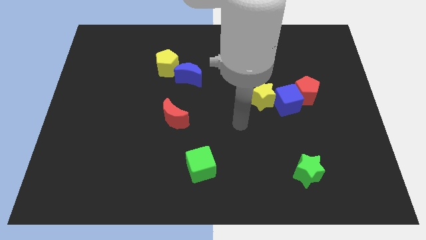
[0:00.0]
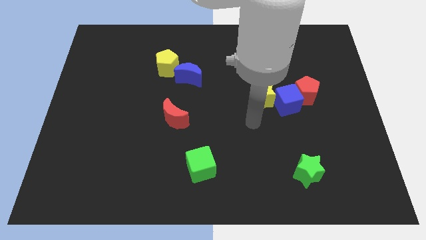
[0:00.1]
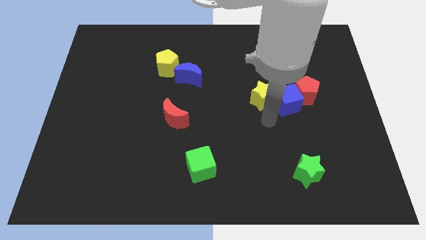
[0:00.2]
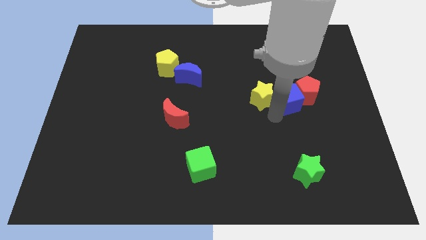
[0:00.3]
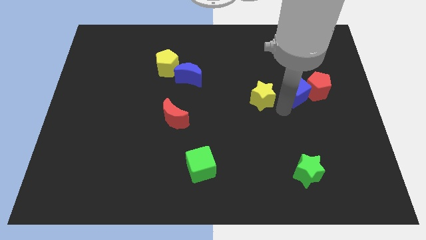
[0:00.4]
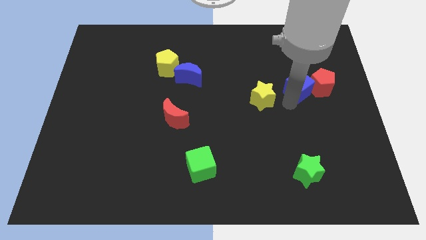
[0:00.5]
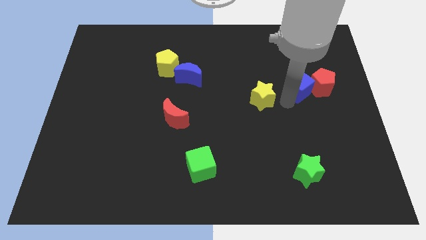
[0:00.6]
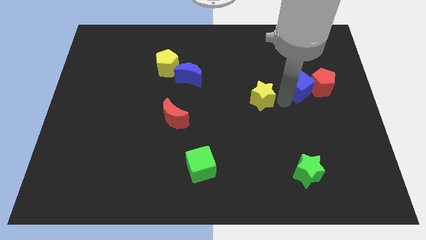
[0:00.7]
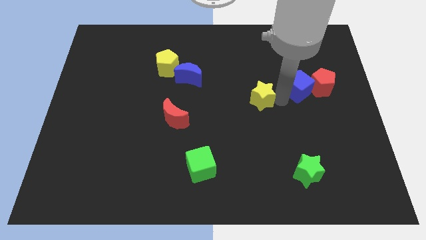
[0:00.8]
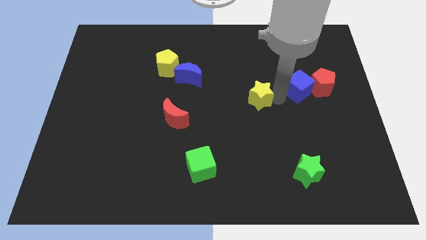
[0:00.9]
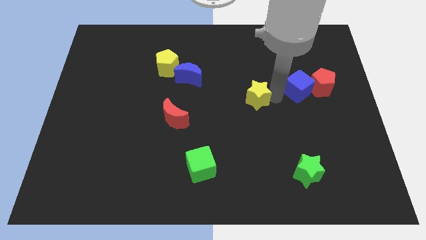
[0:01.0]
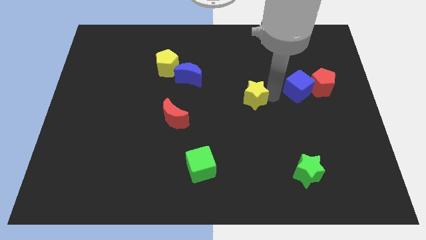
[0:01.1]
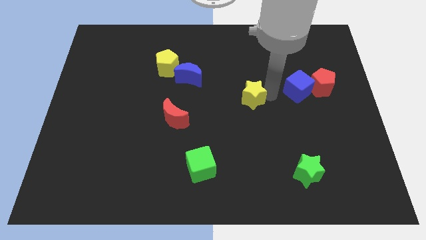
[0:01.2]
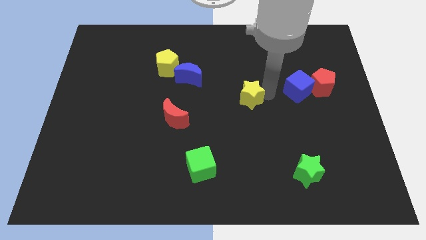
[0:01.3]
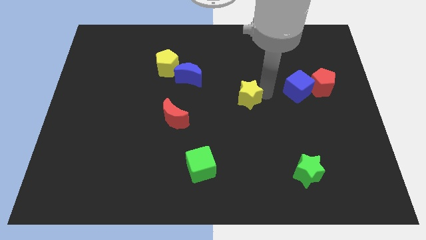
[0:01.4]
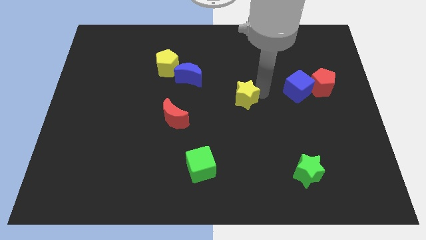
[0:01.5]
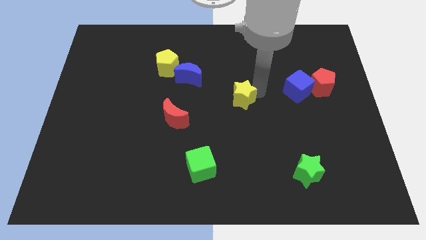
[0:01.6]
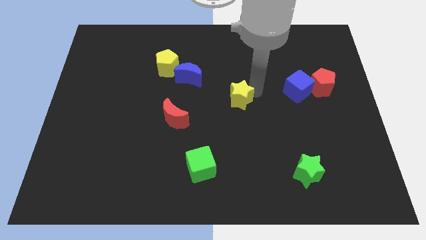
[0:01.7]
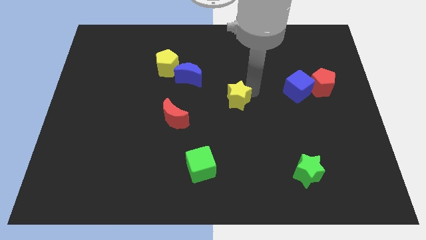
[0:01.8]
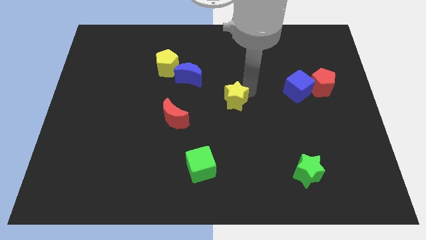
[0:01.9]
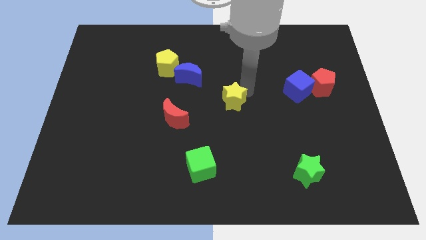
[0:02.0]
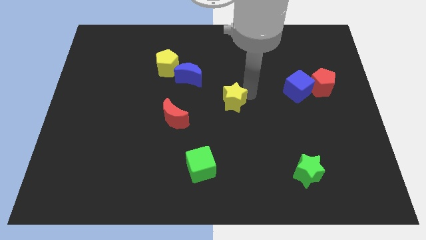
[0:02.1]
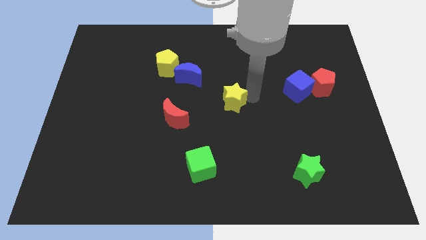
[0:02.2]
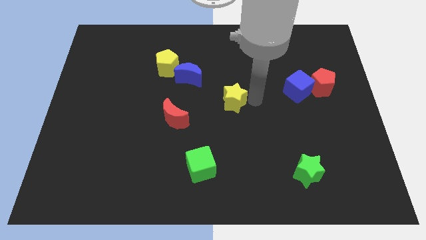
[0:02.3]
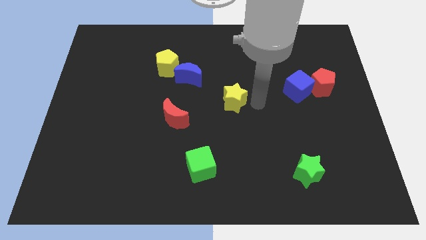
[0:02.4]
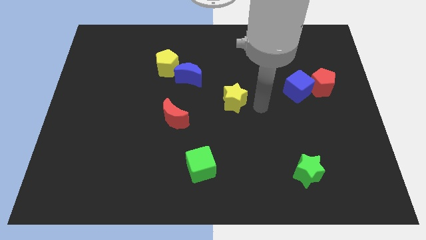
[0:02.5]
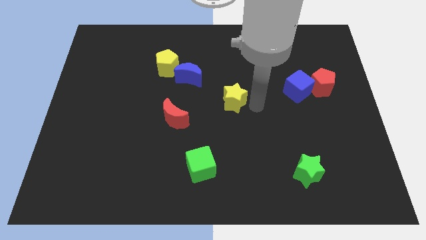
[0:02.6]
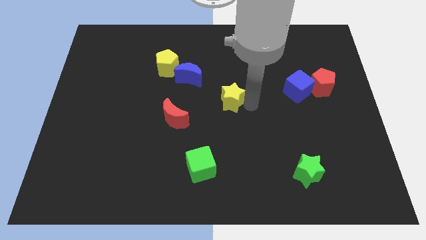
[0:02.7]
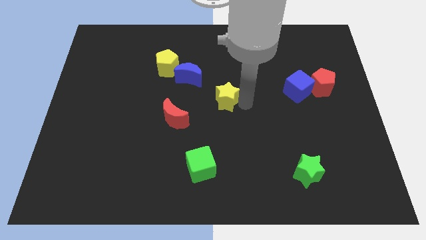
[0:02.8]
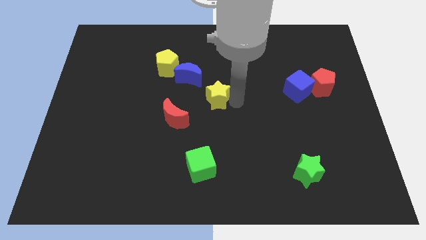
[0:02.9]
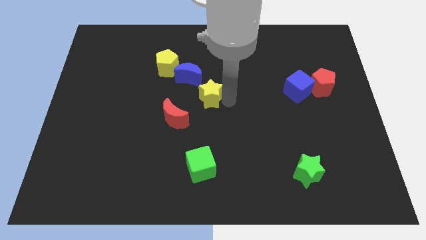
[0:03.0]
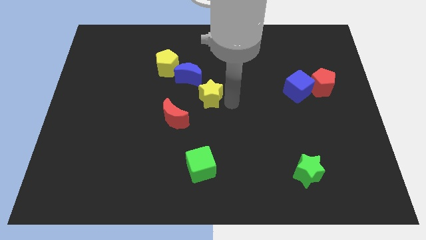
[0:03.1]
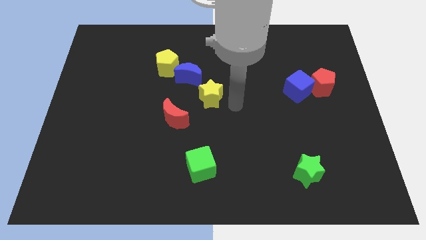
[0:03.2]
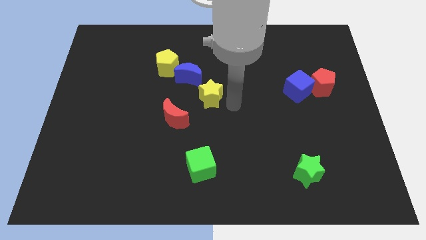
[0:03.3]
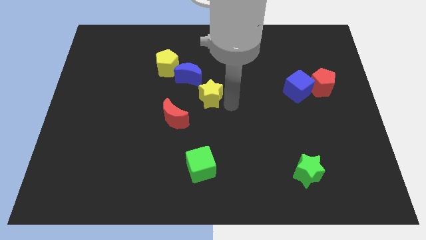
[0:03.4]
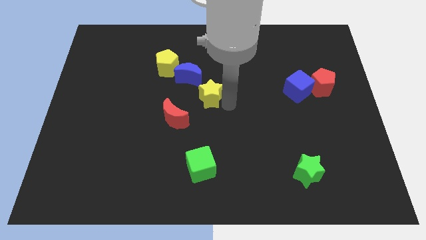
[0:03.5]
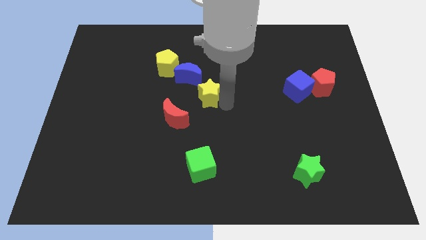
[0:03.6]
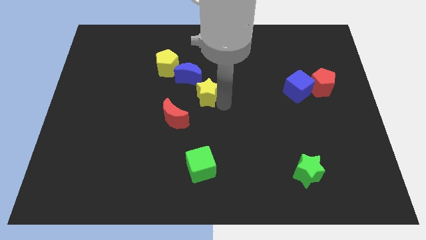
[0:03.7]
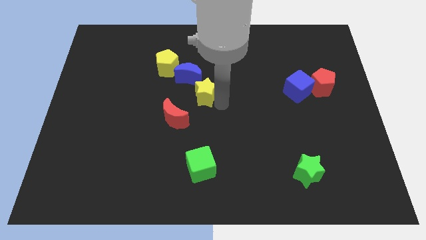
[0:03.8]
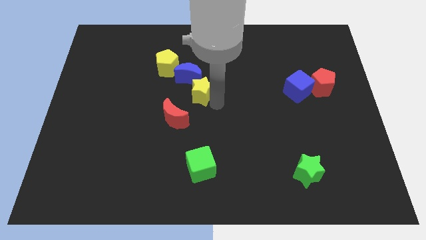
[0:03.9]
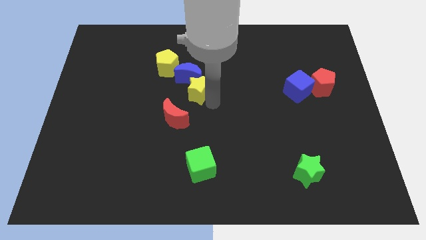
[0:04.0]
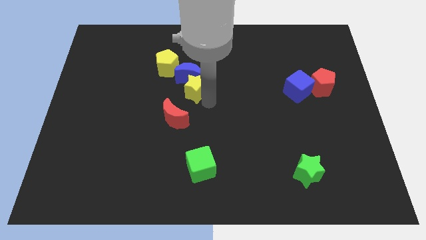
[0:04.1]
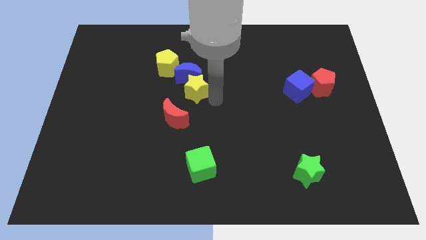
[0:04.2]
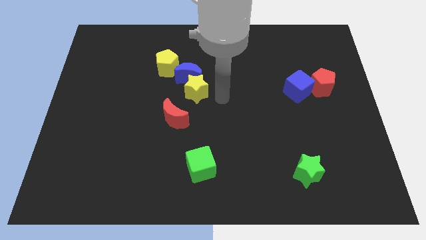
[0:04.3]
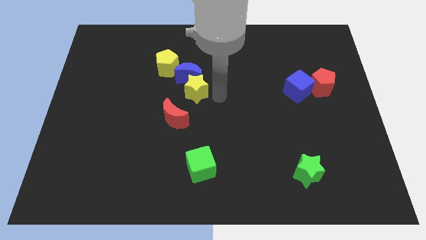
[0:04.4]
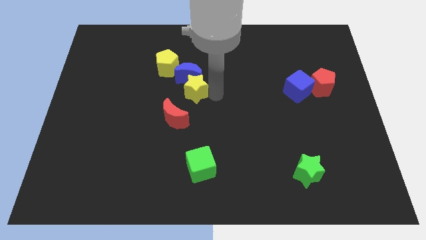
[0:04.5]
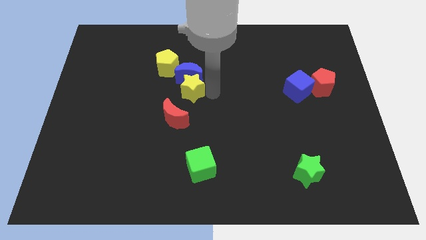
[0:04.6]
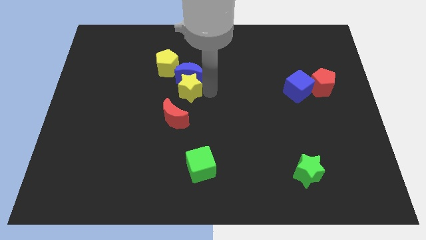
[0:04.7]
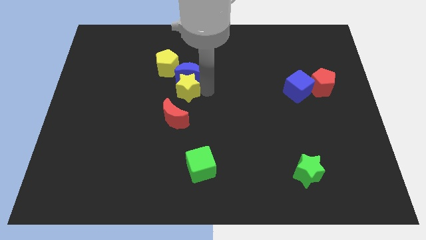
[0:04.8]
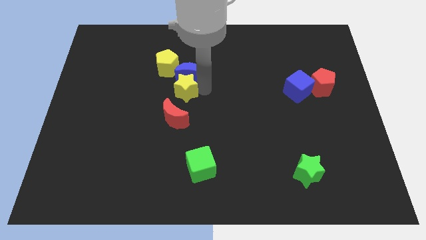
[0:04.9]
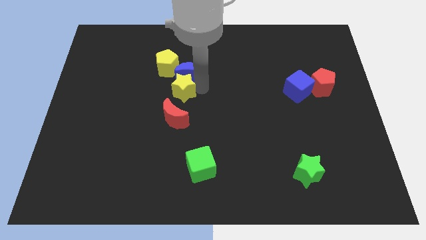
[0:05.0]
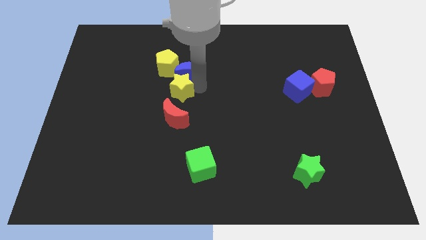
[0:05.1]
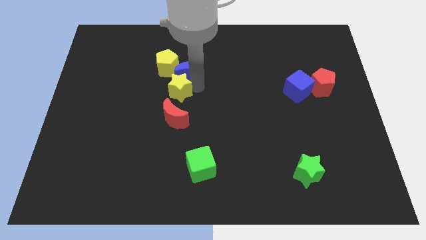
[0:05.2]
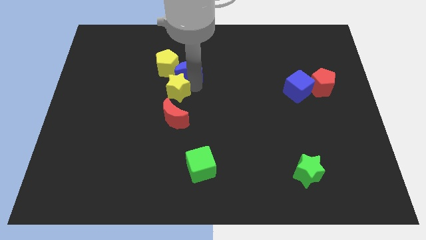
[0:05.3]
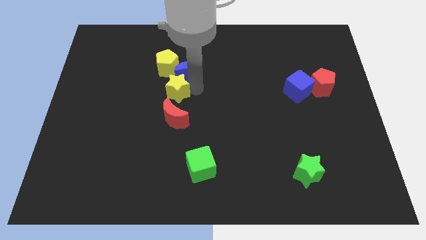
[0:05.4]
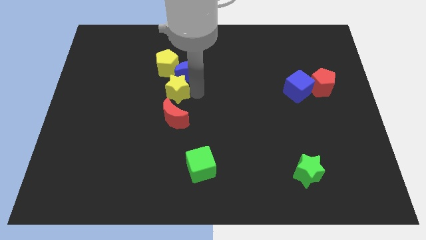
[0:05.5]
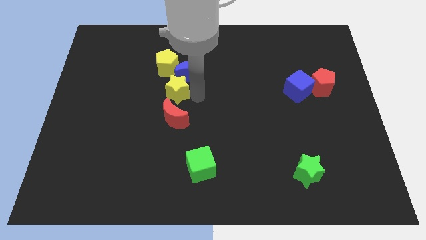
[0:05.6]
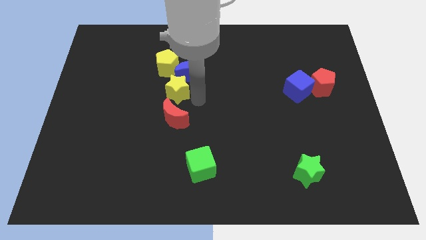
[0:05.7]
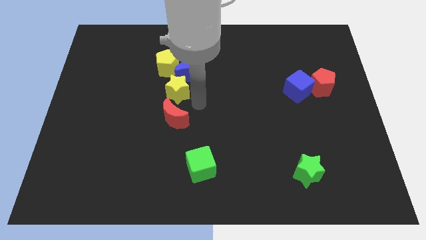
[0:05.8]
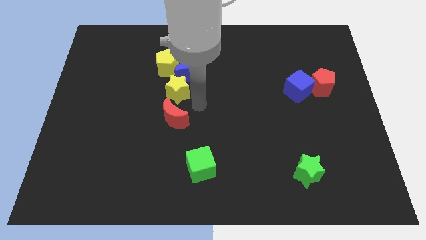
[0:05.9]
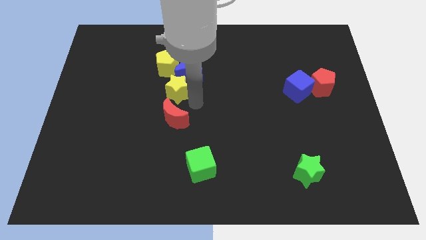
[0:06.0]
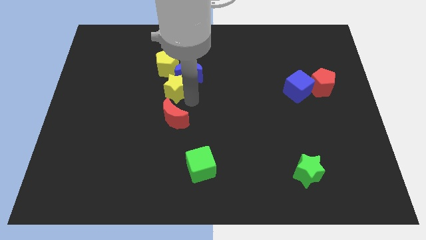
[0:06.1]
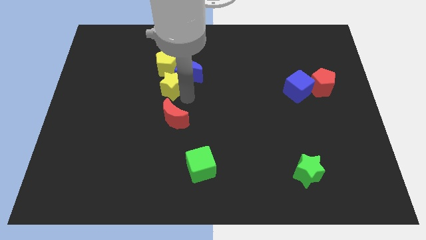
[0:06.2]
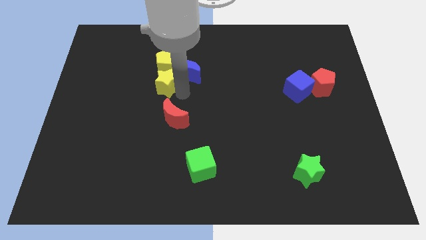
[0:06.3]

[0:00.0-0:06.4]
push the yellow star to the bottom left of the yellow pentagon
